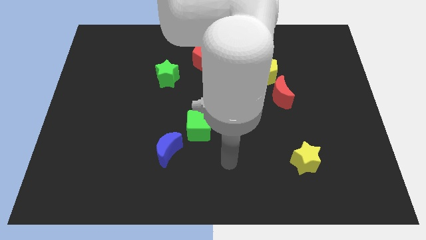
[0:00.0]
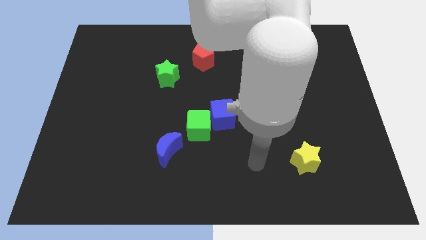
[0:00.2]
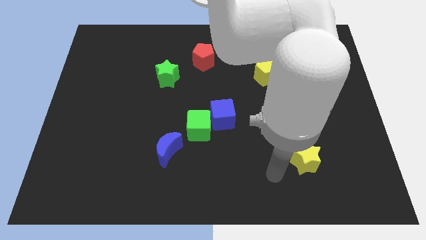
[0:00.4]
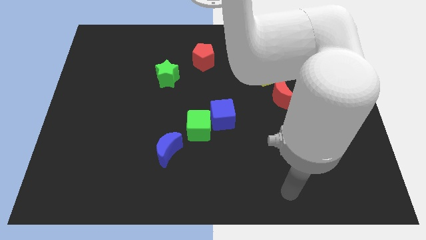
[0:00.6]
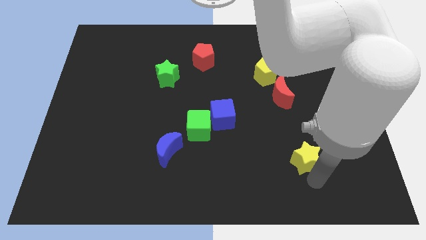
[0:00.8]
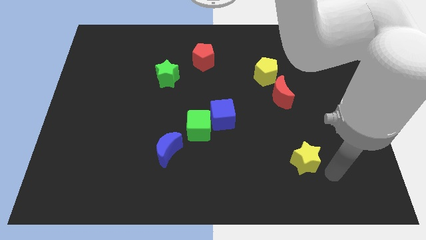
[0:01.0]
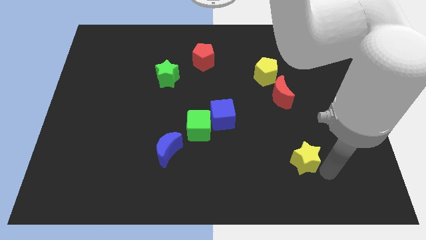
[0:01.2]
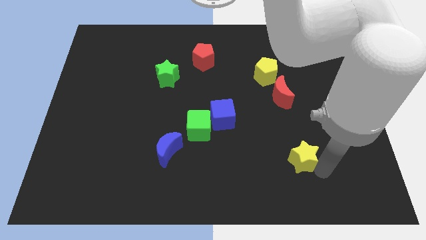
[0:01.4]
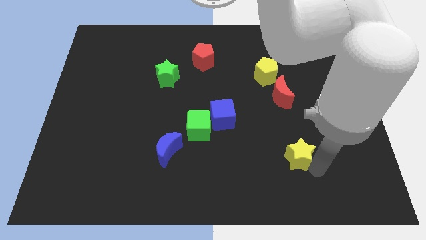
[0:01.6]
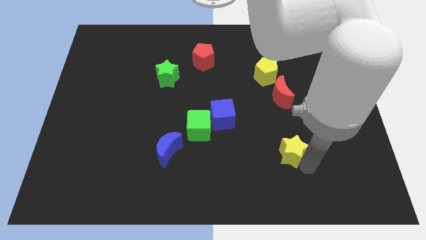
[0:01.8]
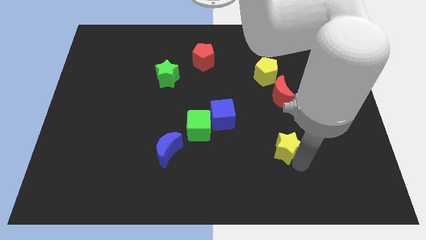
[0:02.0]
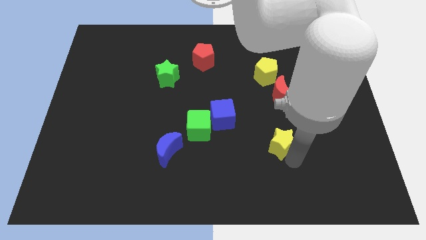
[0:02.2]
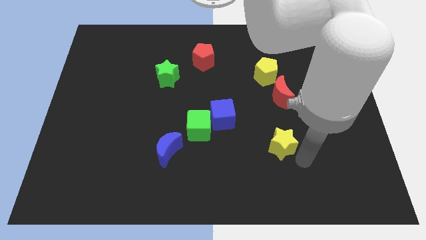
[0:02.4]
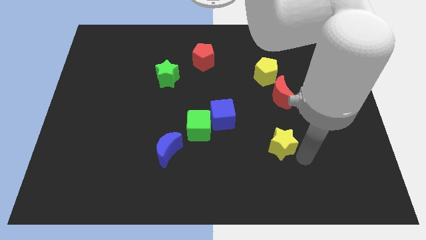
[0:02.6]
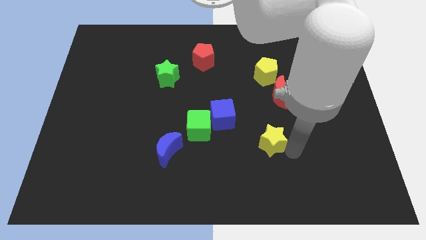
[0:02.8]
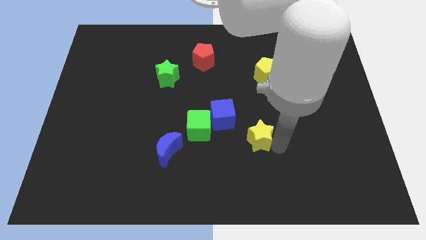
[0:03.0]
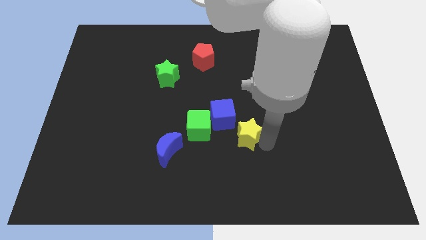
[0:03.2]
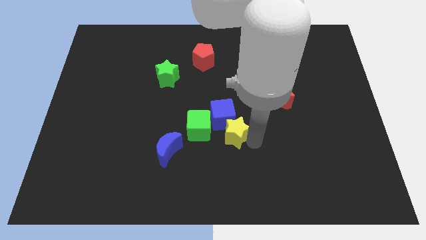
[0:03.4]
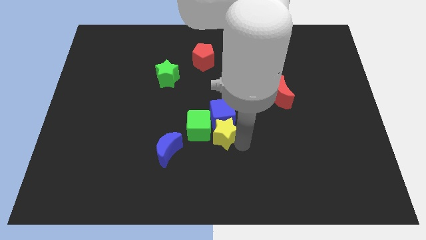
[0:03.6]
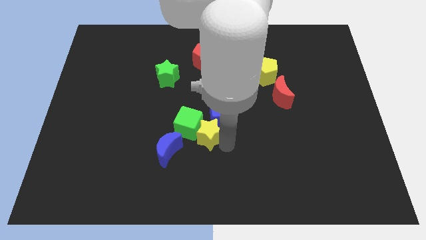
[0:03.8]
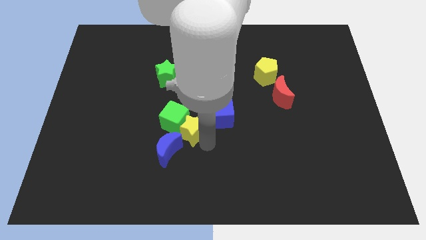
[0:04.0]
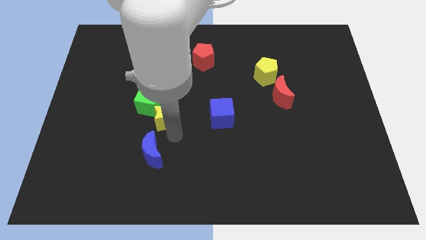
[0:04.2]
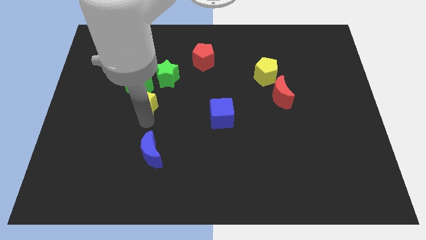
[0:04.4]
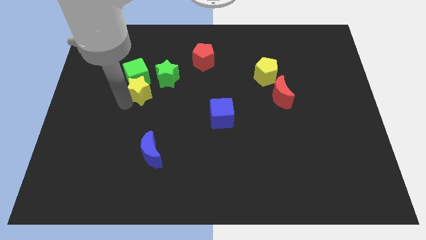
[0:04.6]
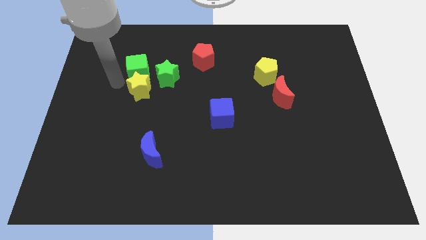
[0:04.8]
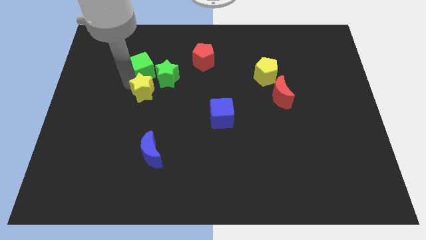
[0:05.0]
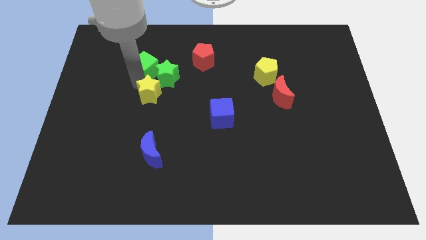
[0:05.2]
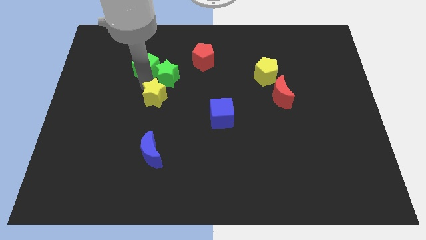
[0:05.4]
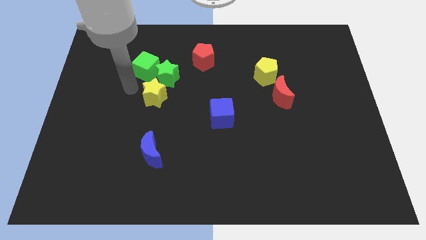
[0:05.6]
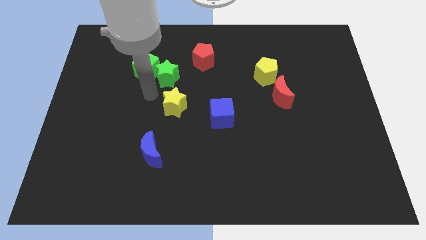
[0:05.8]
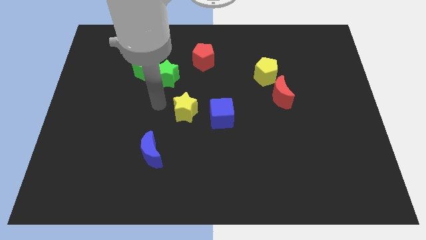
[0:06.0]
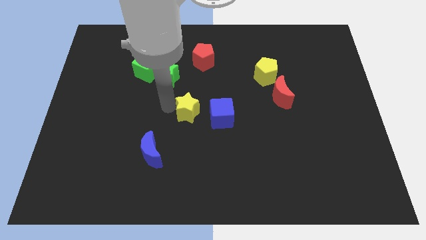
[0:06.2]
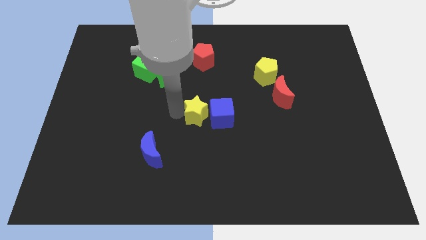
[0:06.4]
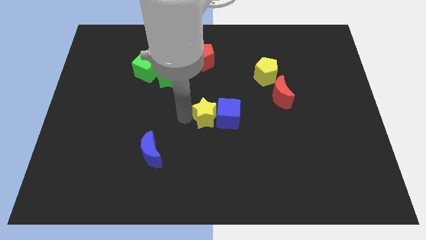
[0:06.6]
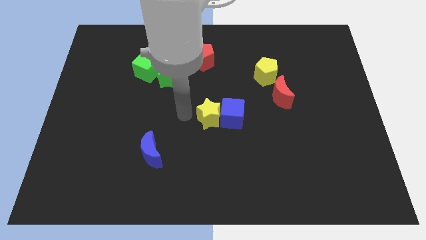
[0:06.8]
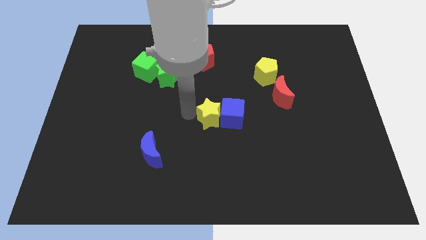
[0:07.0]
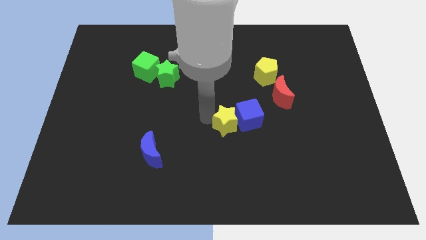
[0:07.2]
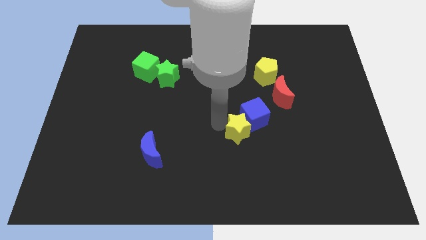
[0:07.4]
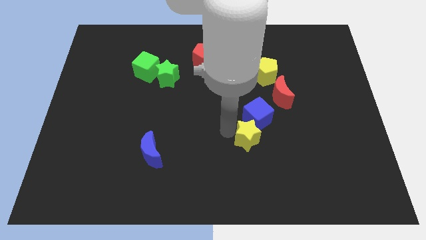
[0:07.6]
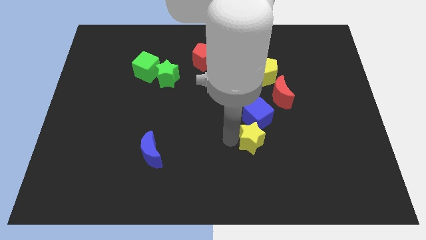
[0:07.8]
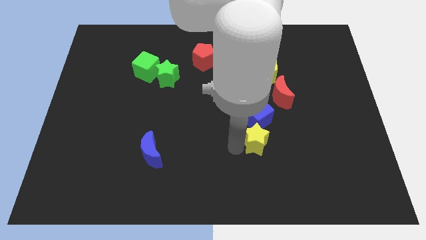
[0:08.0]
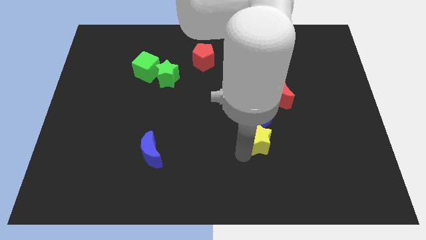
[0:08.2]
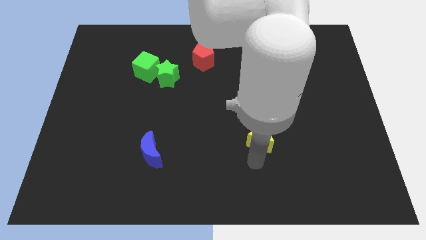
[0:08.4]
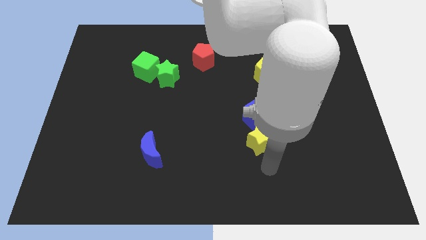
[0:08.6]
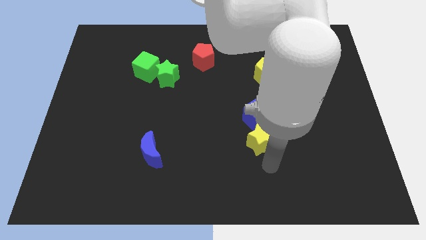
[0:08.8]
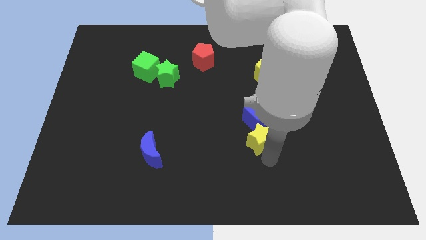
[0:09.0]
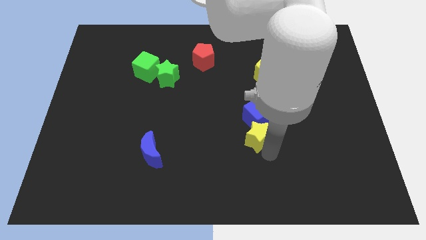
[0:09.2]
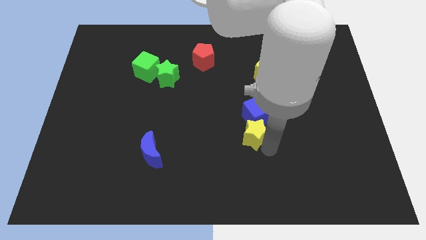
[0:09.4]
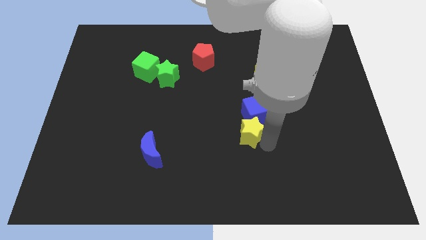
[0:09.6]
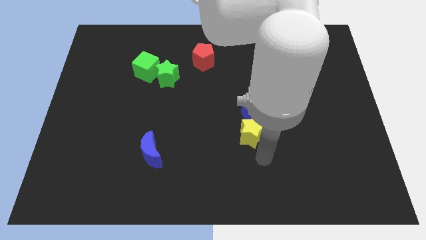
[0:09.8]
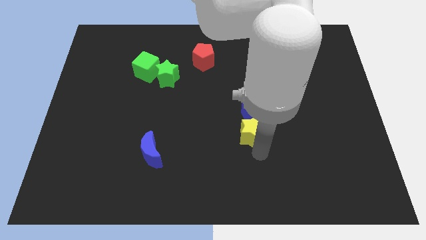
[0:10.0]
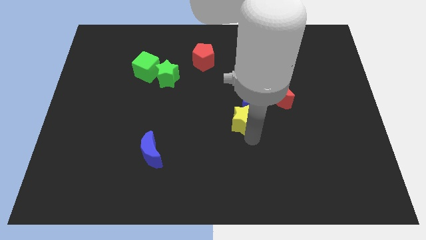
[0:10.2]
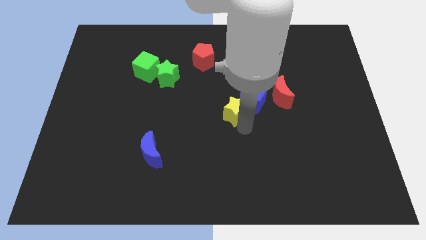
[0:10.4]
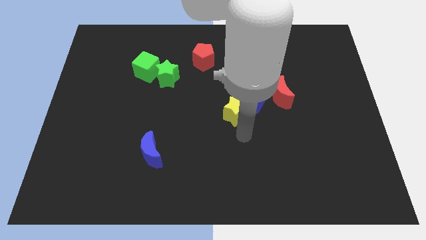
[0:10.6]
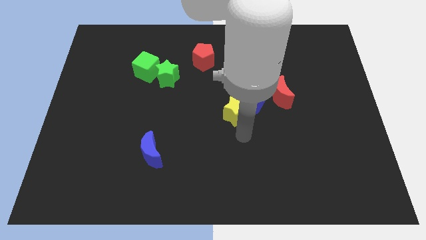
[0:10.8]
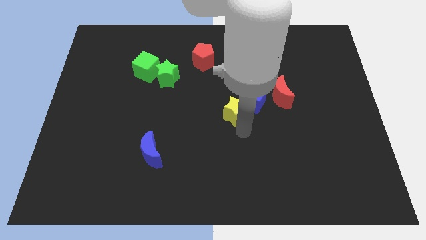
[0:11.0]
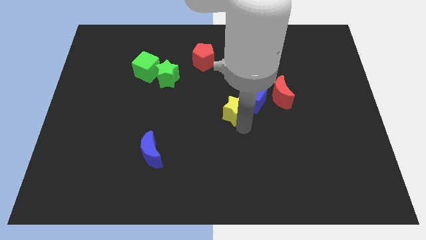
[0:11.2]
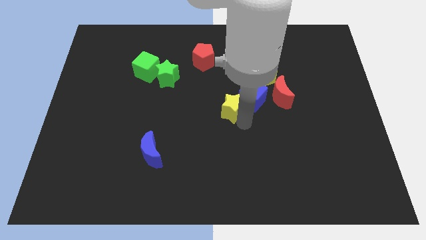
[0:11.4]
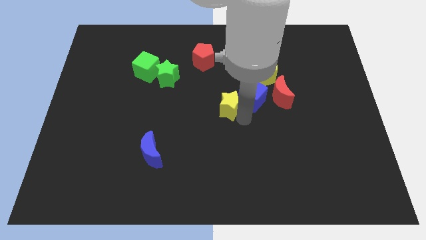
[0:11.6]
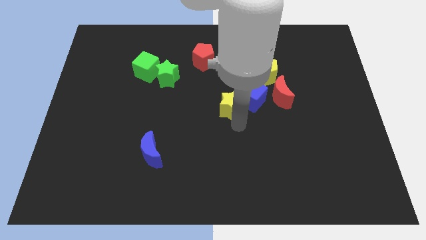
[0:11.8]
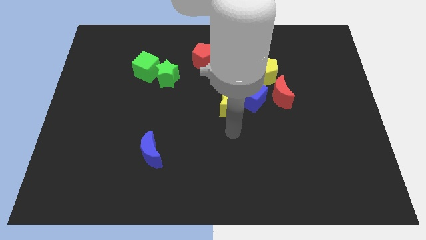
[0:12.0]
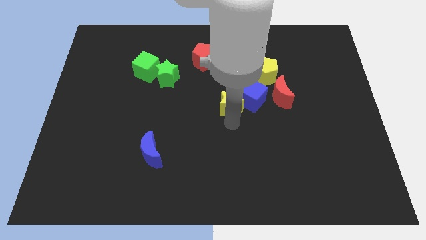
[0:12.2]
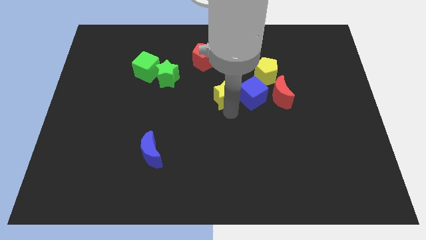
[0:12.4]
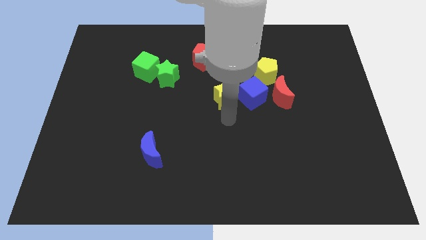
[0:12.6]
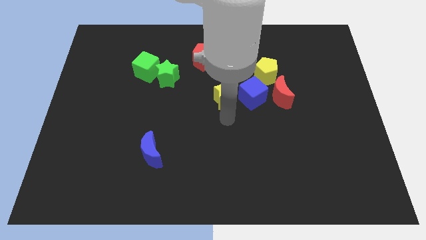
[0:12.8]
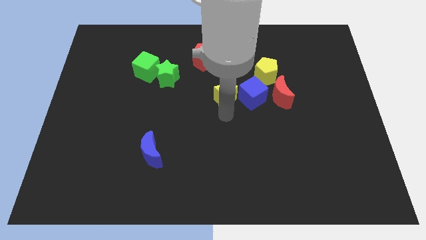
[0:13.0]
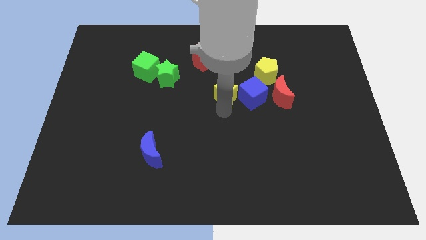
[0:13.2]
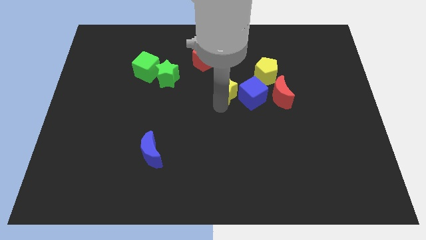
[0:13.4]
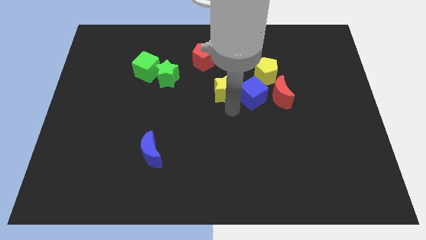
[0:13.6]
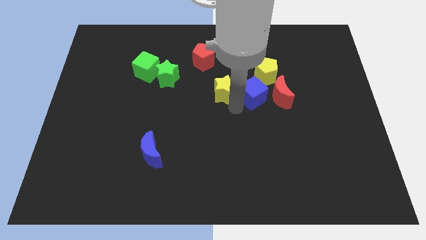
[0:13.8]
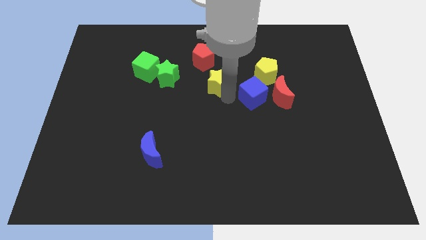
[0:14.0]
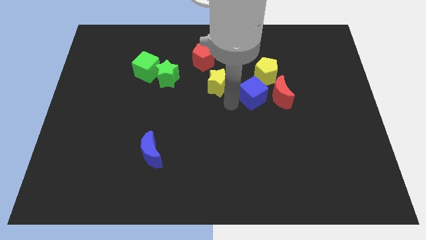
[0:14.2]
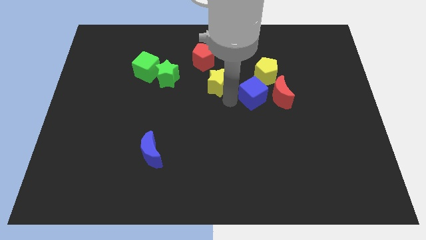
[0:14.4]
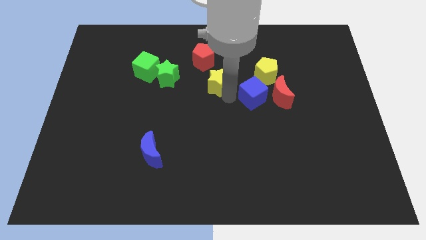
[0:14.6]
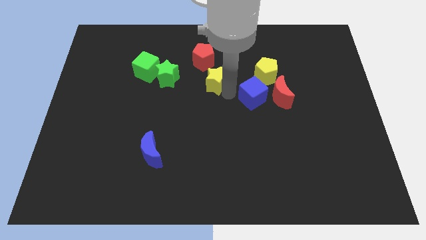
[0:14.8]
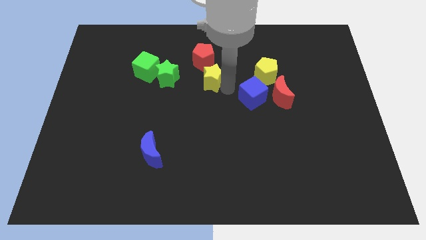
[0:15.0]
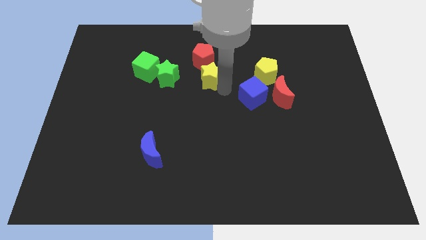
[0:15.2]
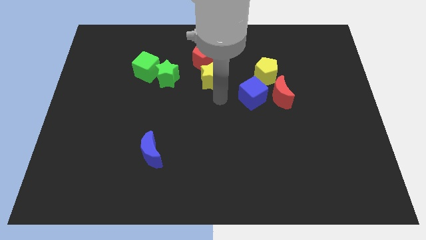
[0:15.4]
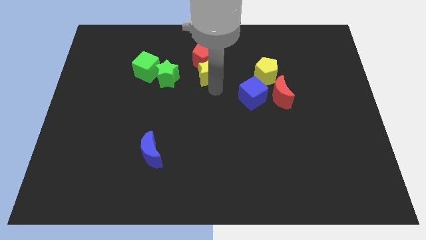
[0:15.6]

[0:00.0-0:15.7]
move the yellow star next to the red pentagon
